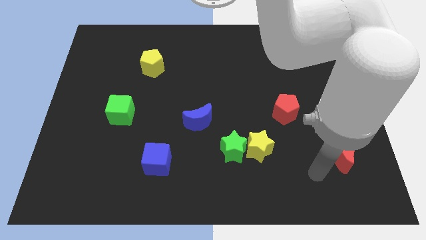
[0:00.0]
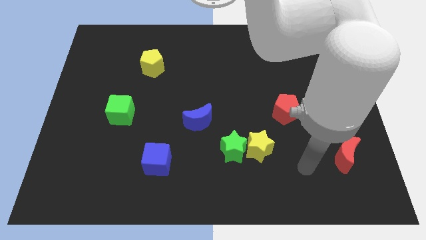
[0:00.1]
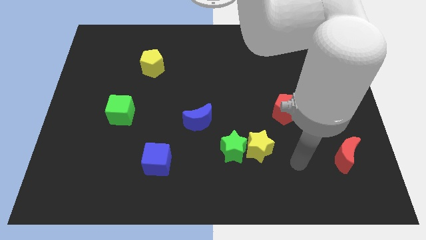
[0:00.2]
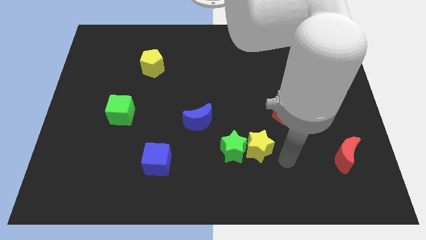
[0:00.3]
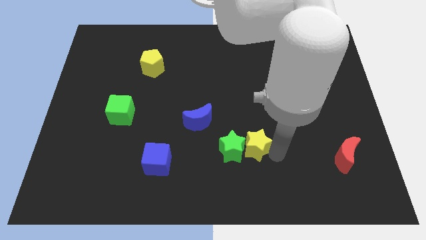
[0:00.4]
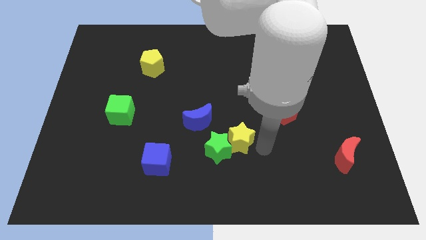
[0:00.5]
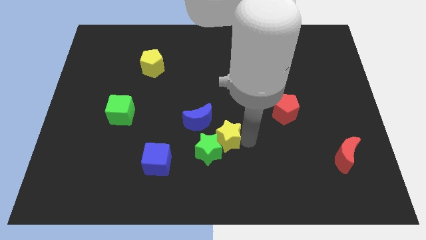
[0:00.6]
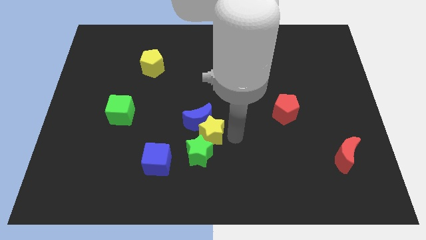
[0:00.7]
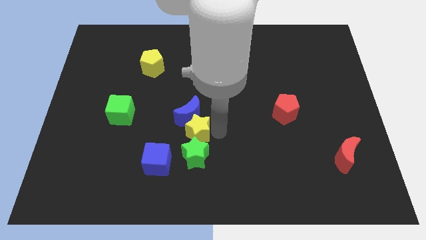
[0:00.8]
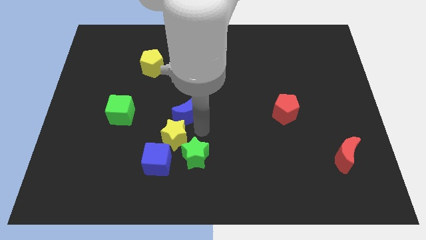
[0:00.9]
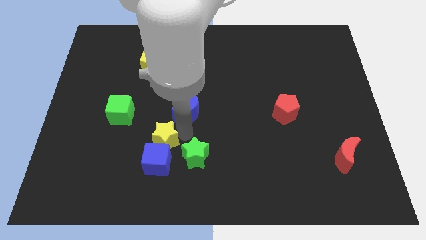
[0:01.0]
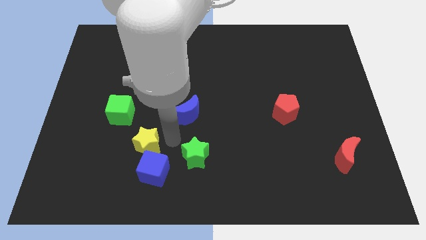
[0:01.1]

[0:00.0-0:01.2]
separate the green star from the yellow star

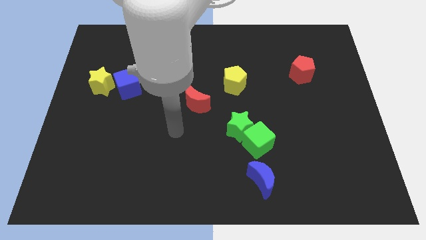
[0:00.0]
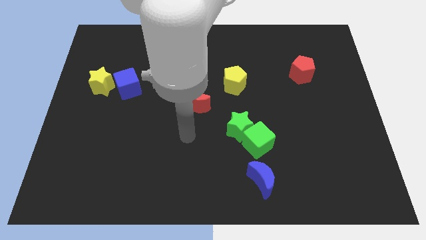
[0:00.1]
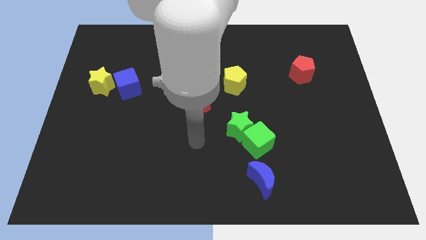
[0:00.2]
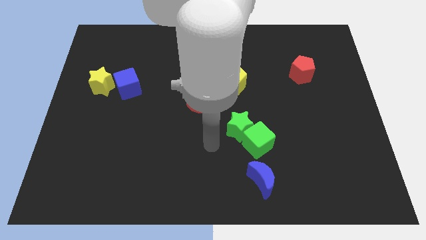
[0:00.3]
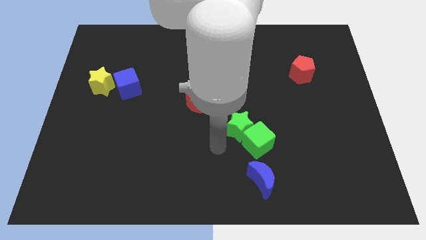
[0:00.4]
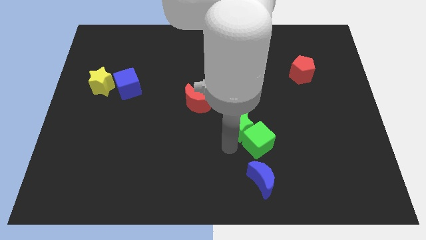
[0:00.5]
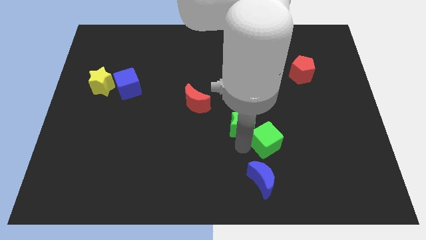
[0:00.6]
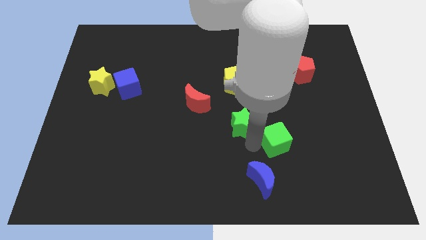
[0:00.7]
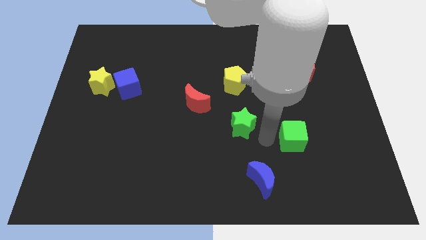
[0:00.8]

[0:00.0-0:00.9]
move the green star away from the green cube

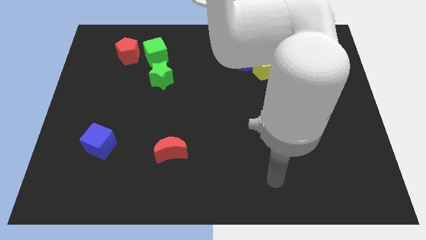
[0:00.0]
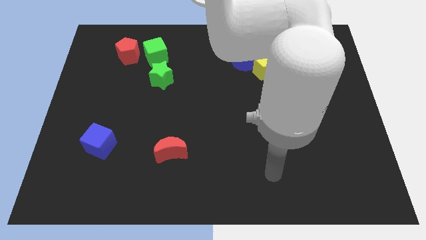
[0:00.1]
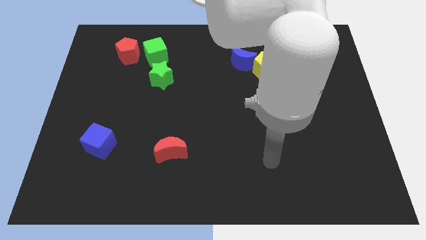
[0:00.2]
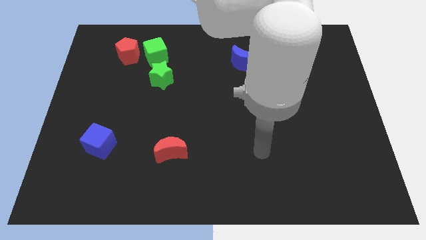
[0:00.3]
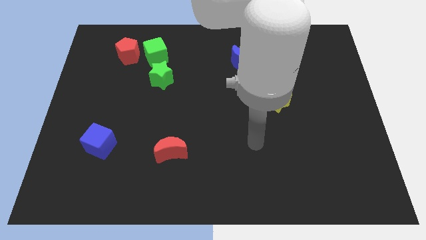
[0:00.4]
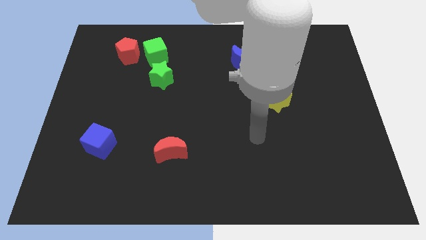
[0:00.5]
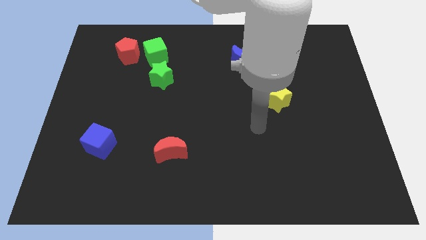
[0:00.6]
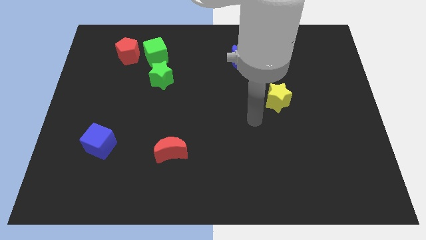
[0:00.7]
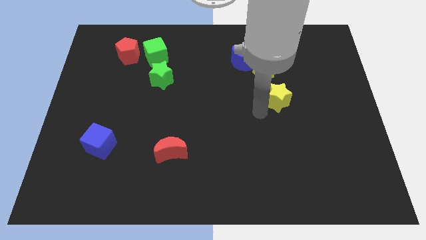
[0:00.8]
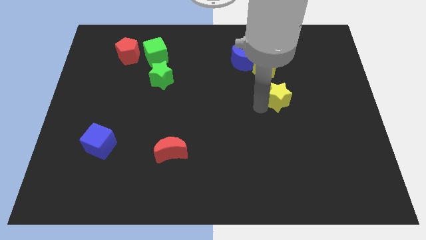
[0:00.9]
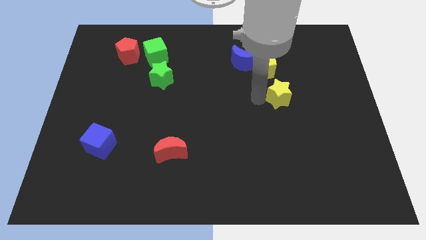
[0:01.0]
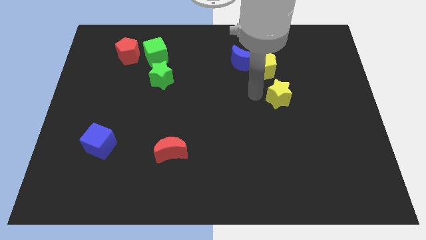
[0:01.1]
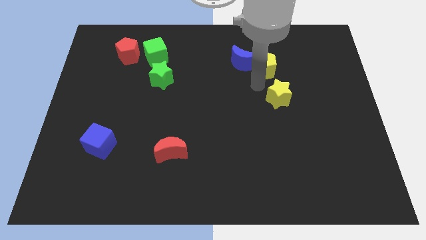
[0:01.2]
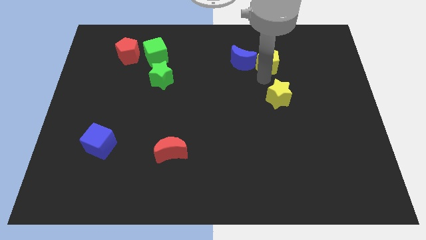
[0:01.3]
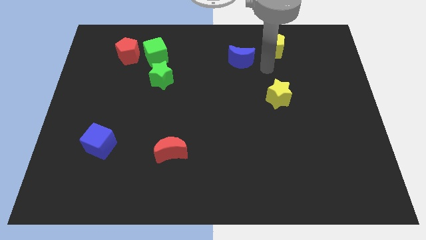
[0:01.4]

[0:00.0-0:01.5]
pull the blue moon apart from the yellow pentagon

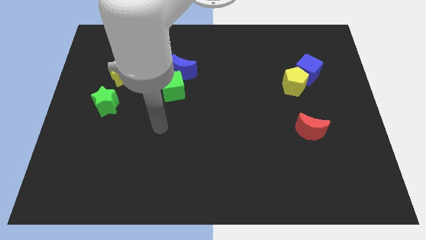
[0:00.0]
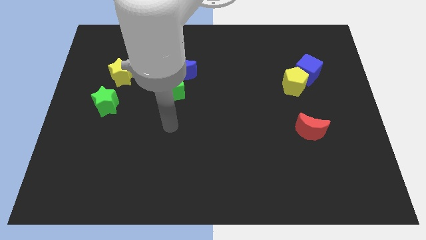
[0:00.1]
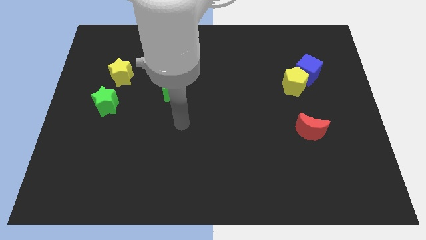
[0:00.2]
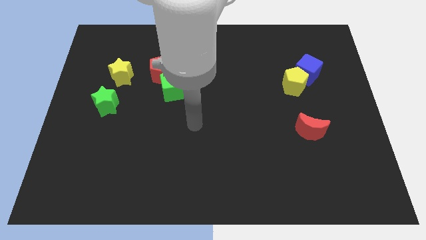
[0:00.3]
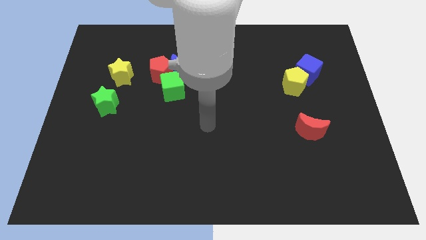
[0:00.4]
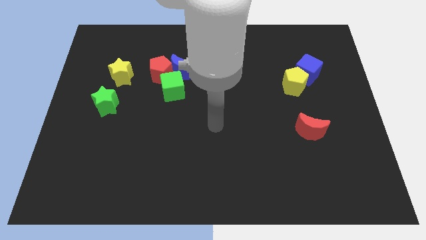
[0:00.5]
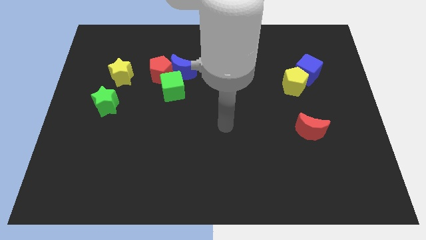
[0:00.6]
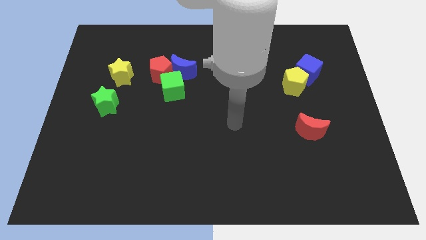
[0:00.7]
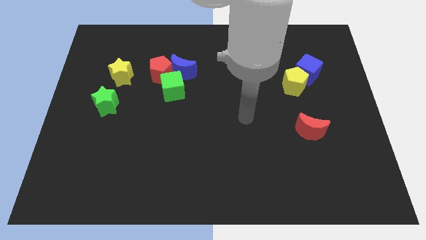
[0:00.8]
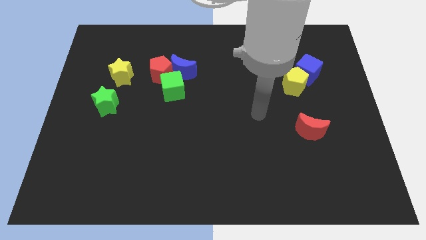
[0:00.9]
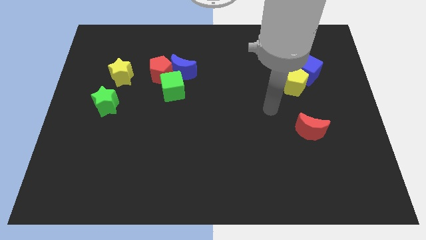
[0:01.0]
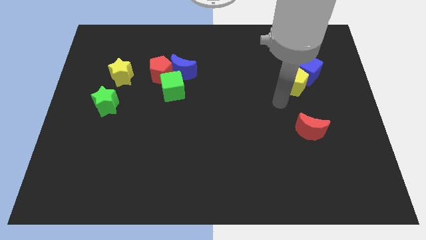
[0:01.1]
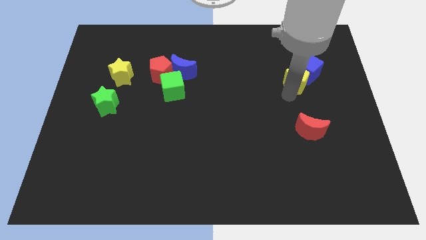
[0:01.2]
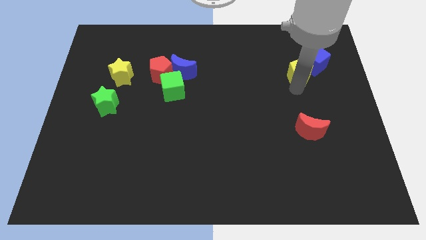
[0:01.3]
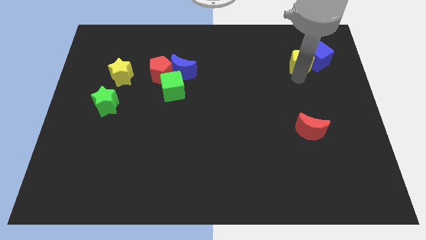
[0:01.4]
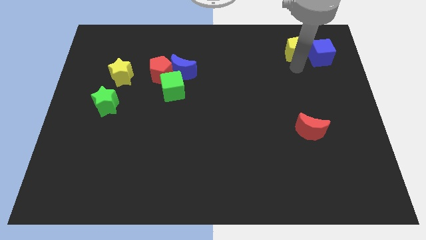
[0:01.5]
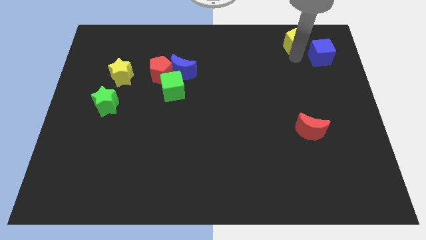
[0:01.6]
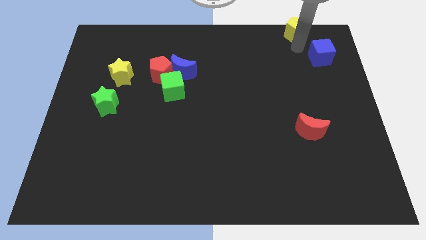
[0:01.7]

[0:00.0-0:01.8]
pull the blue cube apart from the yellow pentagon

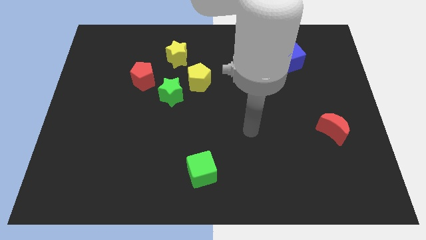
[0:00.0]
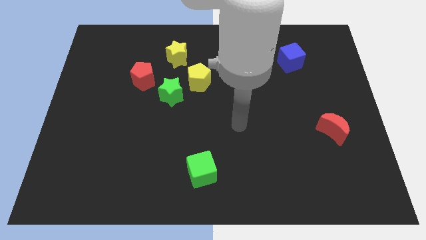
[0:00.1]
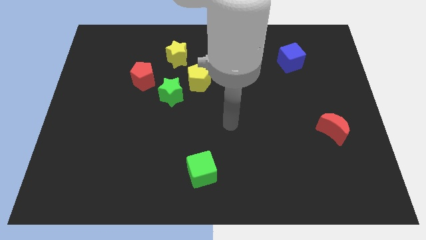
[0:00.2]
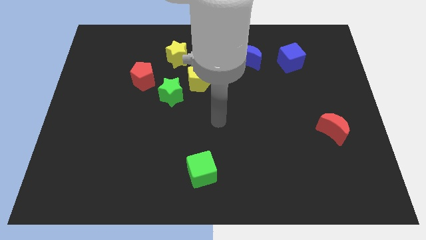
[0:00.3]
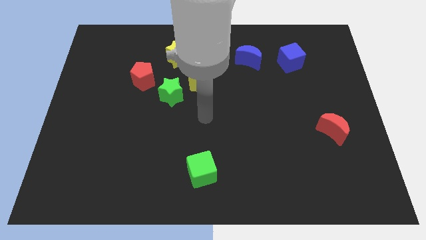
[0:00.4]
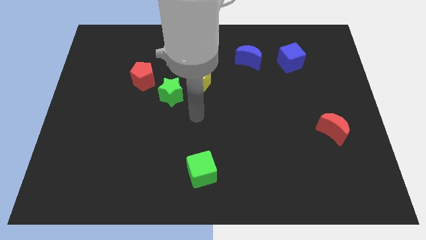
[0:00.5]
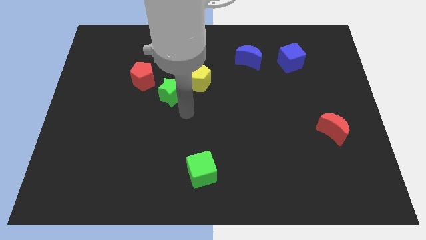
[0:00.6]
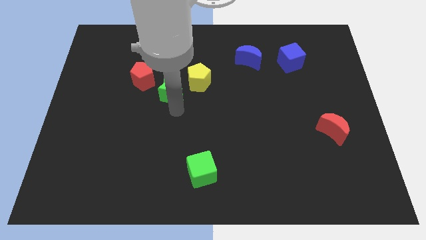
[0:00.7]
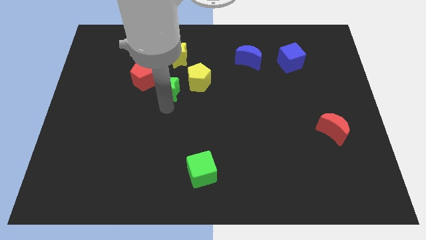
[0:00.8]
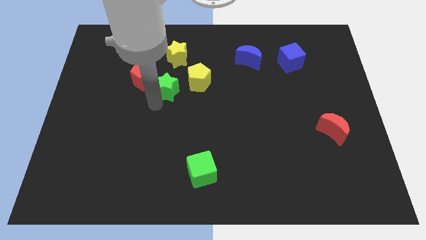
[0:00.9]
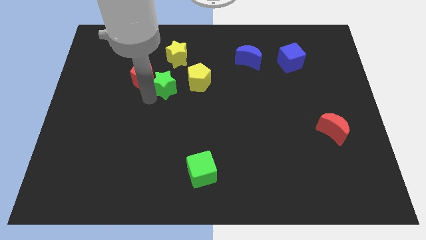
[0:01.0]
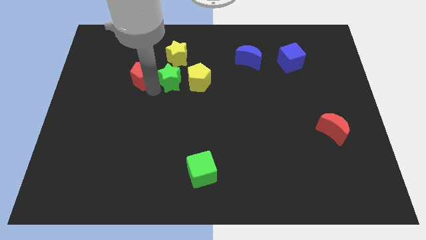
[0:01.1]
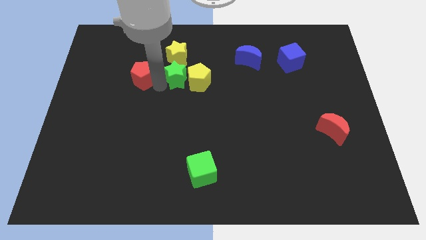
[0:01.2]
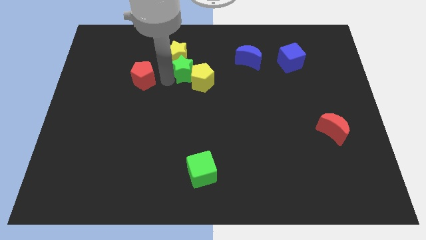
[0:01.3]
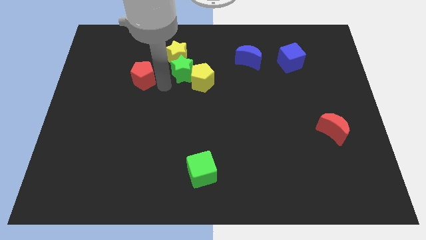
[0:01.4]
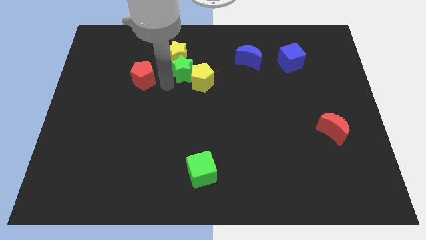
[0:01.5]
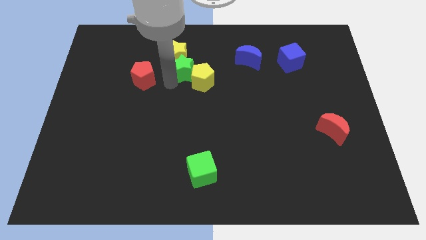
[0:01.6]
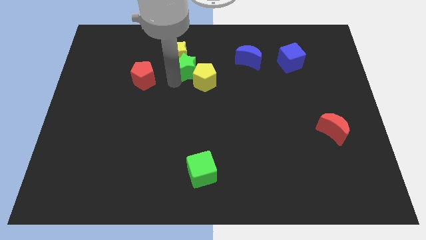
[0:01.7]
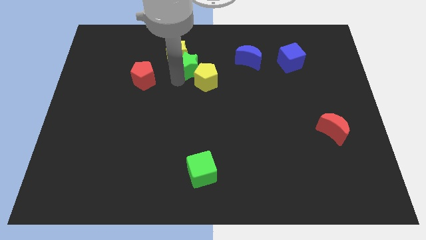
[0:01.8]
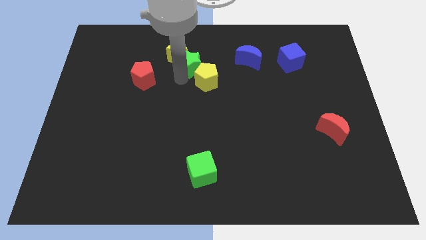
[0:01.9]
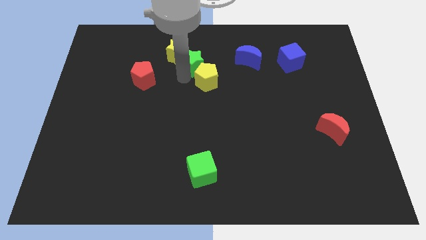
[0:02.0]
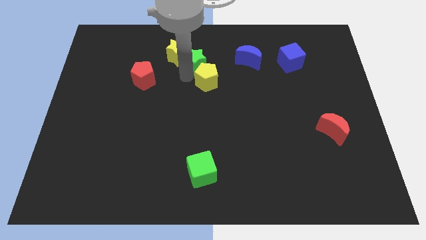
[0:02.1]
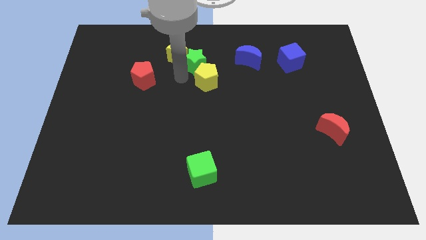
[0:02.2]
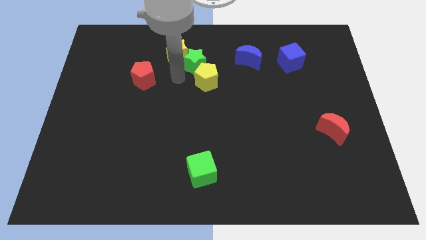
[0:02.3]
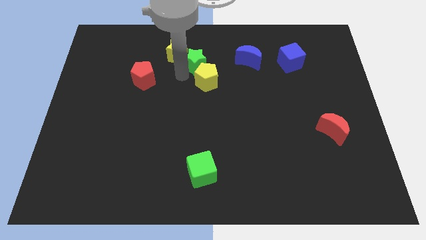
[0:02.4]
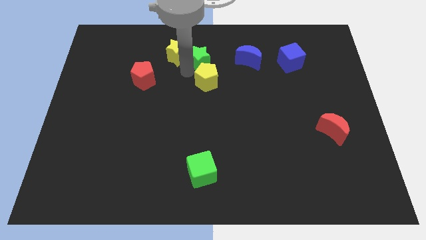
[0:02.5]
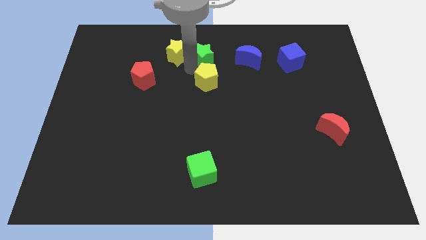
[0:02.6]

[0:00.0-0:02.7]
separate the green star from the yellow pentagon and red pentagon

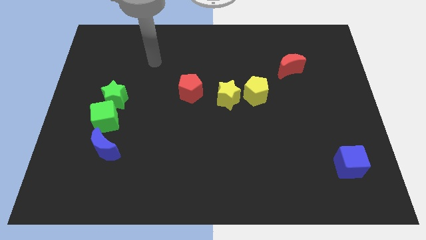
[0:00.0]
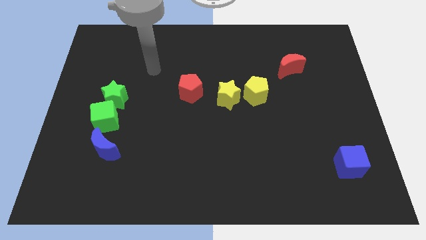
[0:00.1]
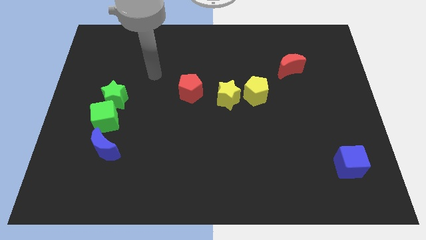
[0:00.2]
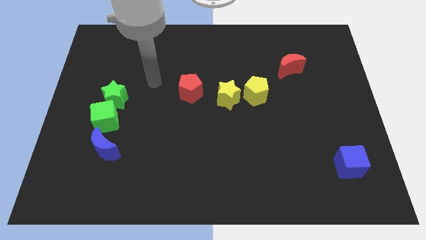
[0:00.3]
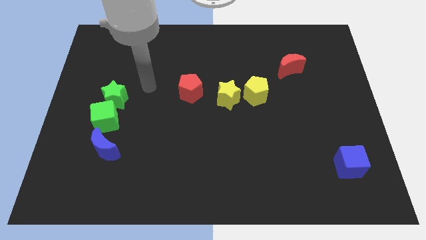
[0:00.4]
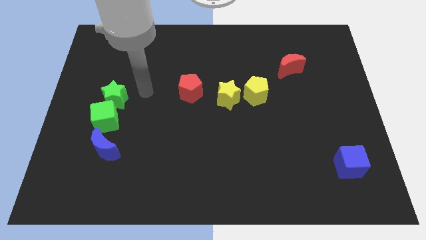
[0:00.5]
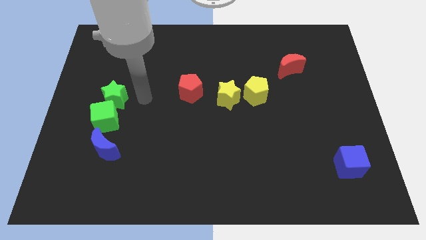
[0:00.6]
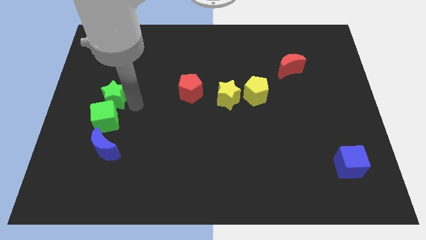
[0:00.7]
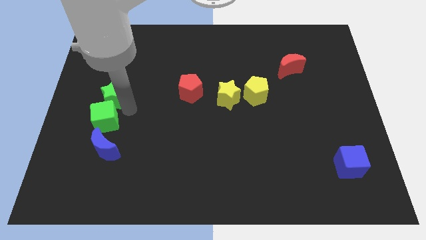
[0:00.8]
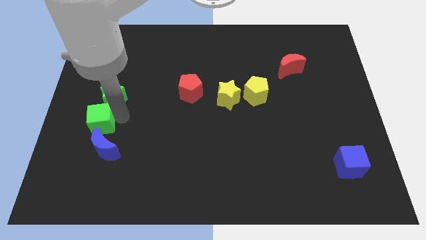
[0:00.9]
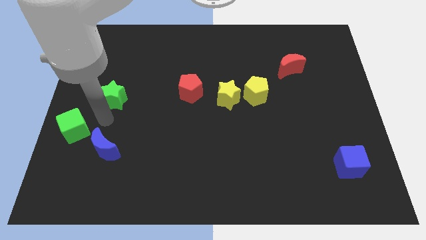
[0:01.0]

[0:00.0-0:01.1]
pull the green star apart from the green cube
